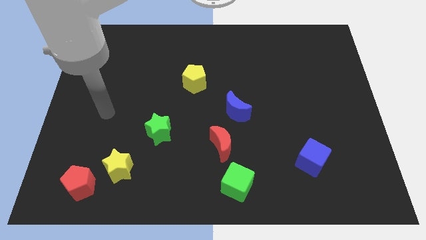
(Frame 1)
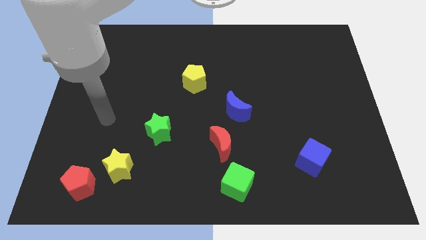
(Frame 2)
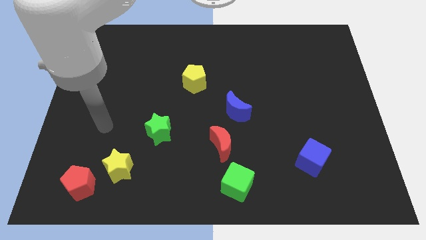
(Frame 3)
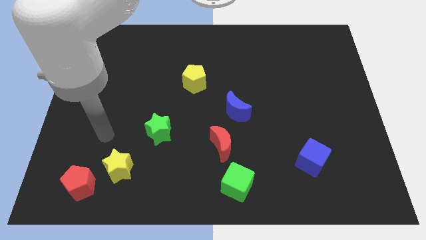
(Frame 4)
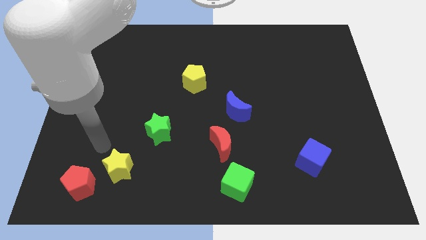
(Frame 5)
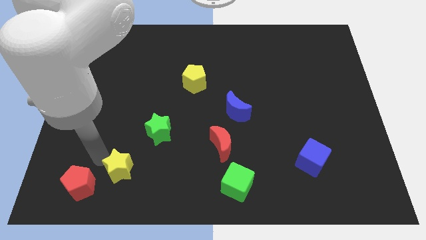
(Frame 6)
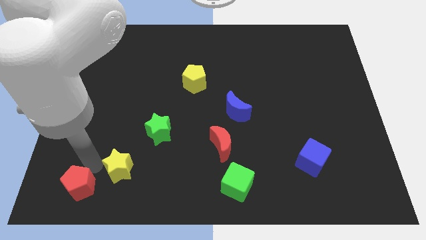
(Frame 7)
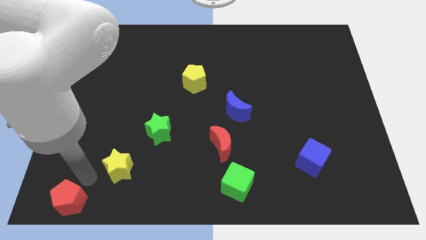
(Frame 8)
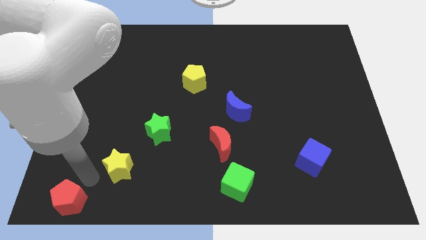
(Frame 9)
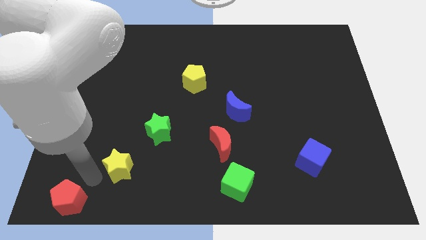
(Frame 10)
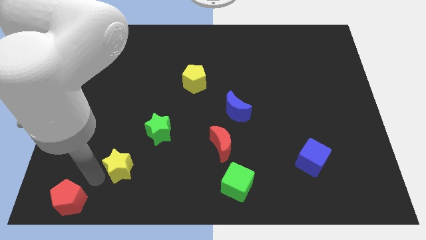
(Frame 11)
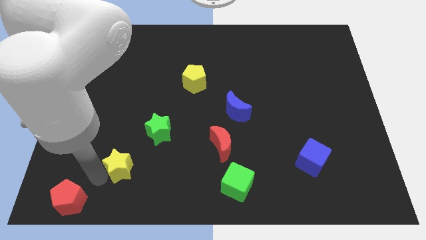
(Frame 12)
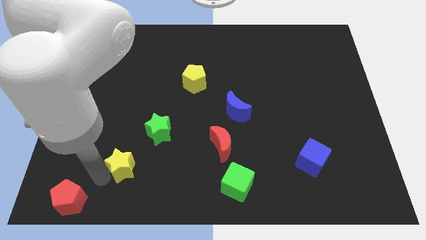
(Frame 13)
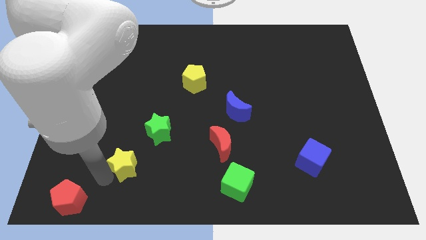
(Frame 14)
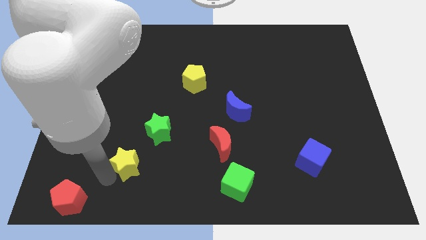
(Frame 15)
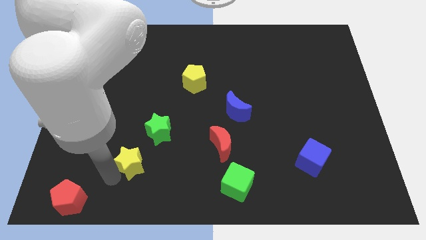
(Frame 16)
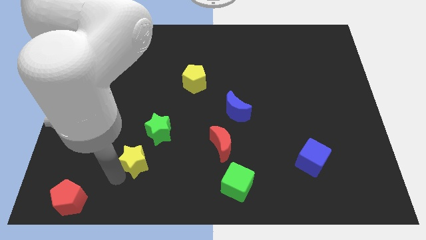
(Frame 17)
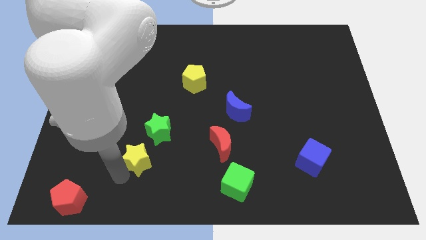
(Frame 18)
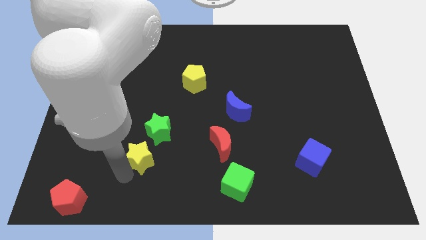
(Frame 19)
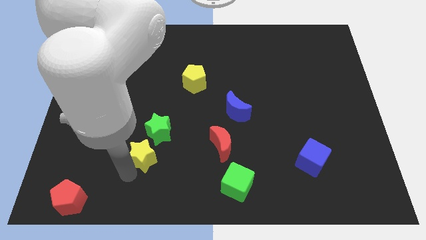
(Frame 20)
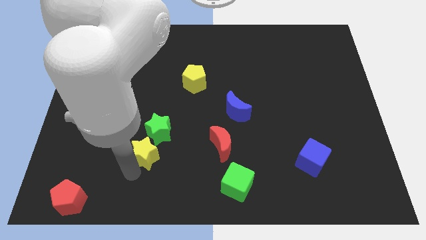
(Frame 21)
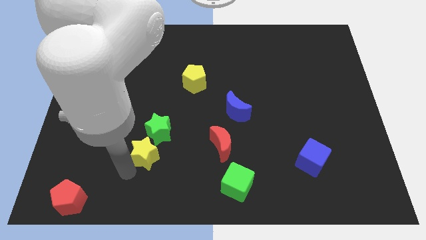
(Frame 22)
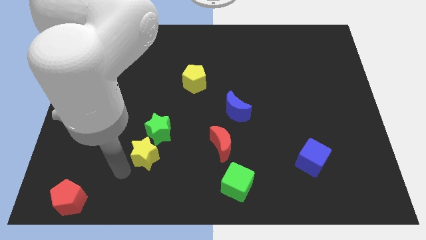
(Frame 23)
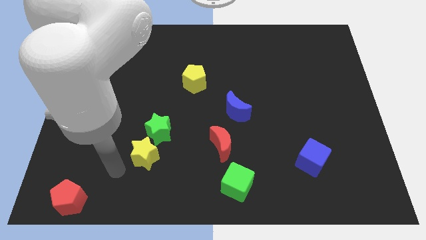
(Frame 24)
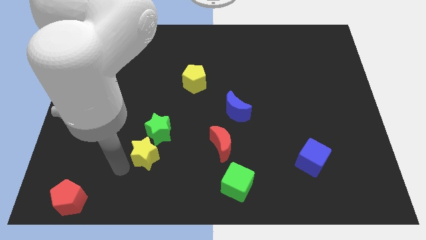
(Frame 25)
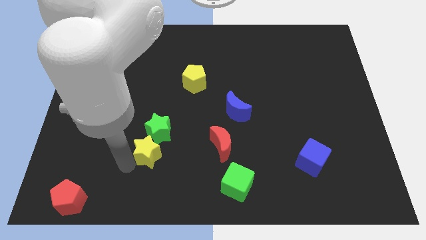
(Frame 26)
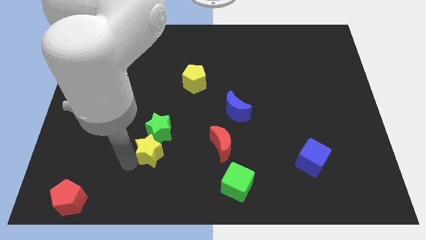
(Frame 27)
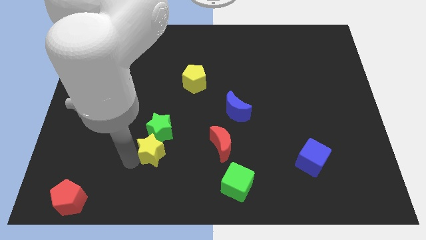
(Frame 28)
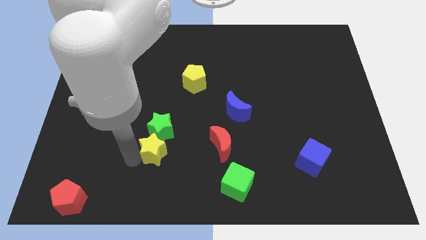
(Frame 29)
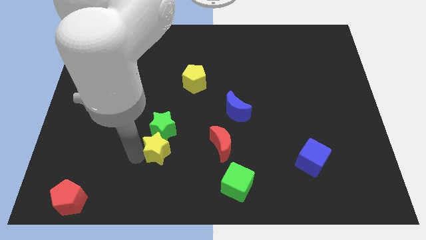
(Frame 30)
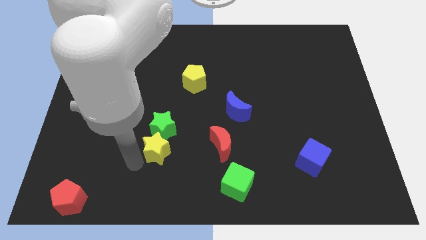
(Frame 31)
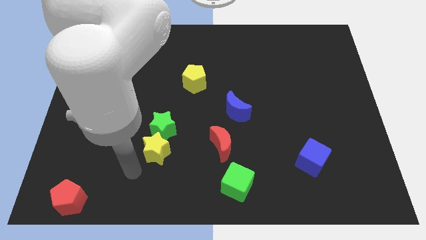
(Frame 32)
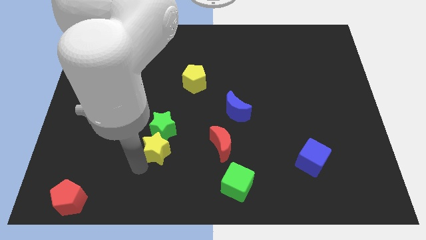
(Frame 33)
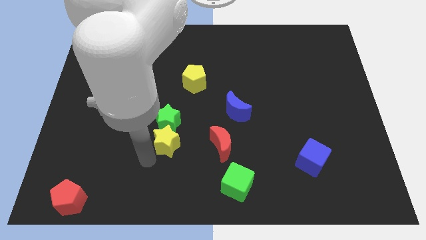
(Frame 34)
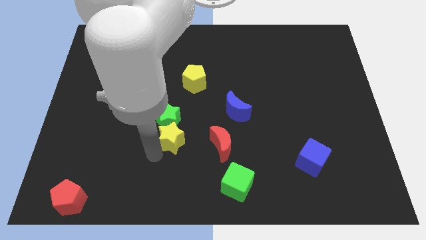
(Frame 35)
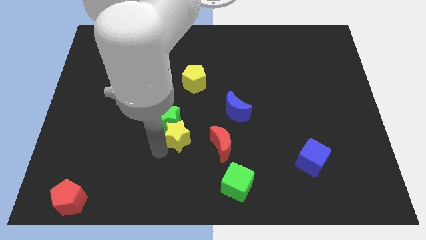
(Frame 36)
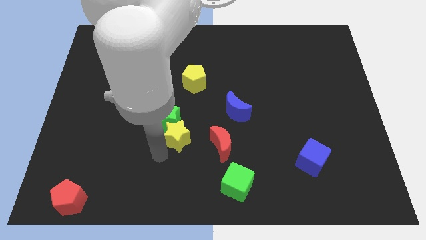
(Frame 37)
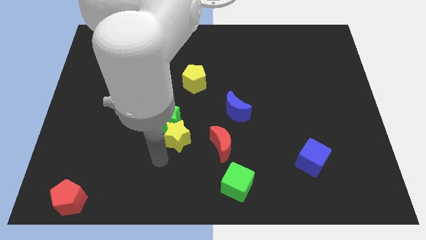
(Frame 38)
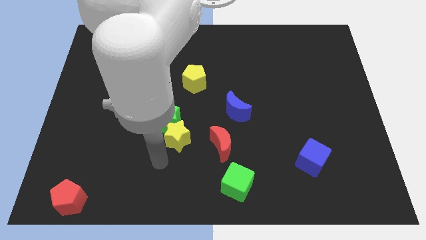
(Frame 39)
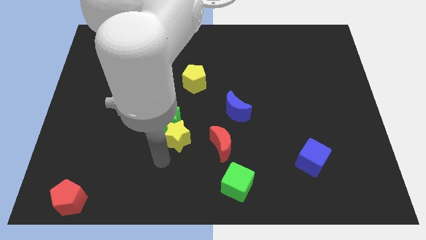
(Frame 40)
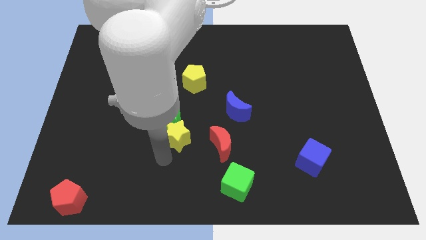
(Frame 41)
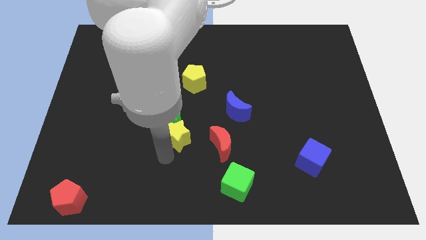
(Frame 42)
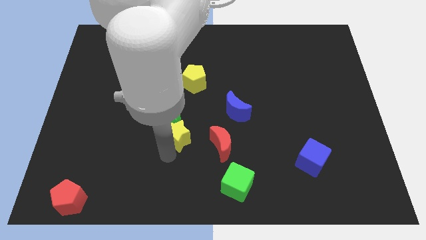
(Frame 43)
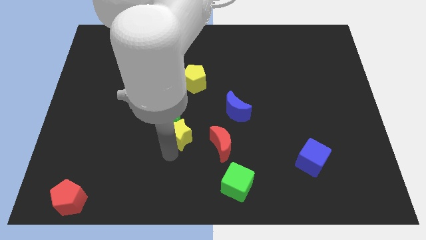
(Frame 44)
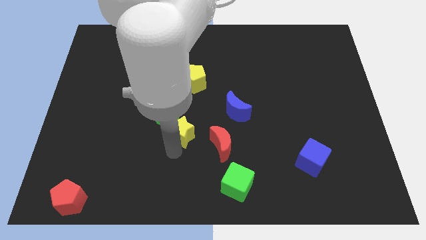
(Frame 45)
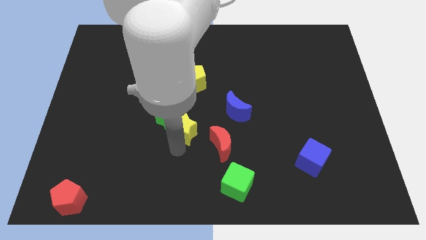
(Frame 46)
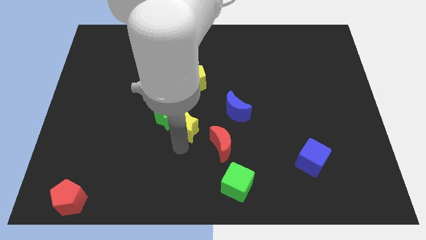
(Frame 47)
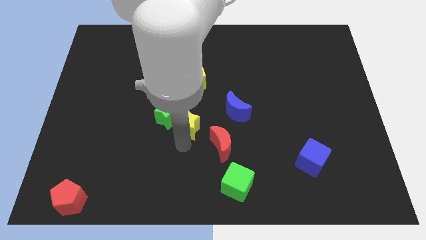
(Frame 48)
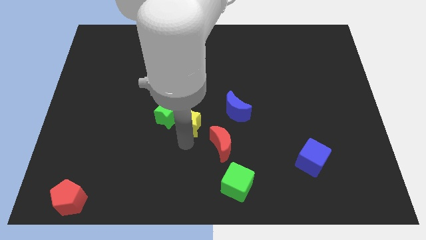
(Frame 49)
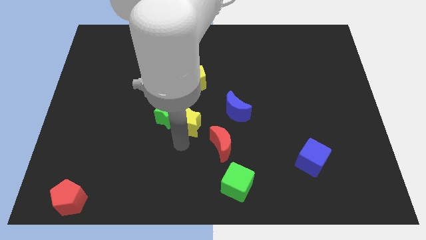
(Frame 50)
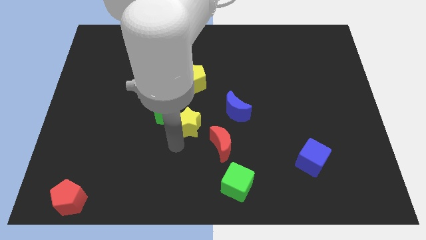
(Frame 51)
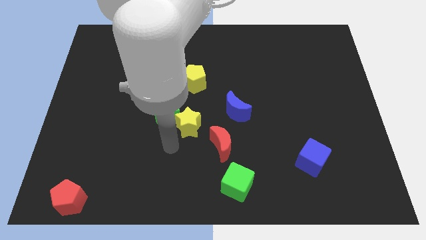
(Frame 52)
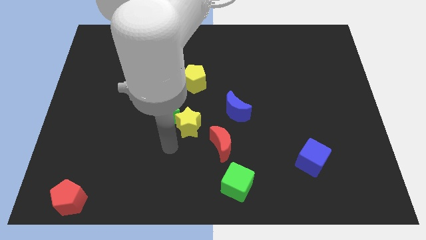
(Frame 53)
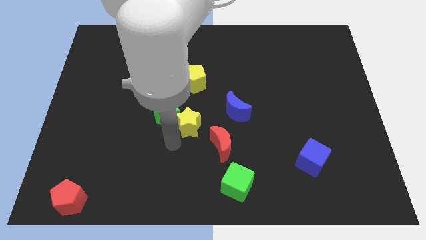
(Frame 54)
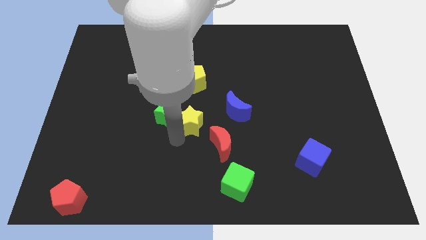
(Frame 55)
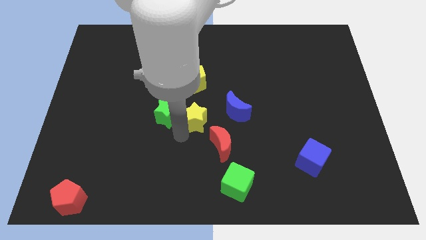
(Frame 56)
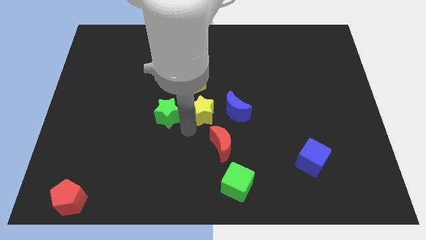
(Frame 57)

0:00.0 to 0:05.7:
push the yellow star up and right diagonally

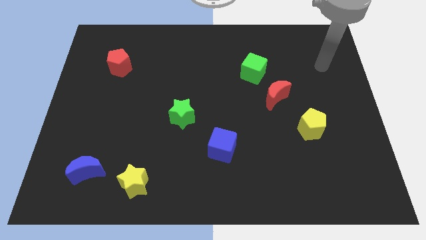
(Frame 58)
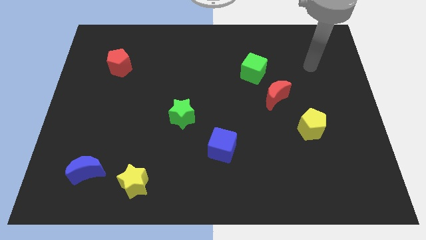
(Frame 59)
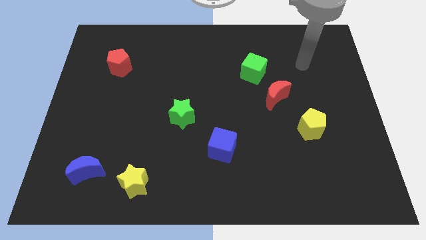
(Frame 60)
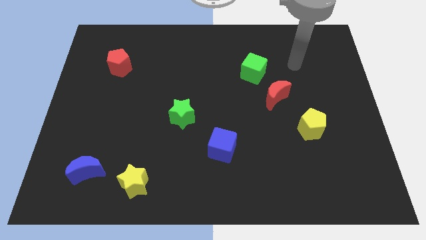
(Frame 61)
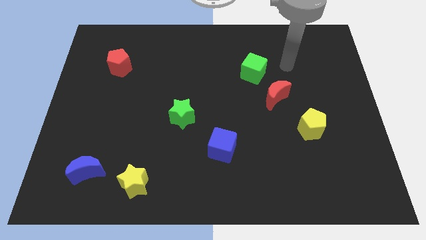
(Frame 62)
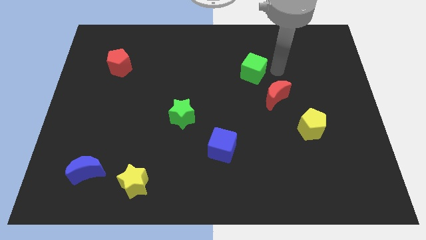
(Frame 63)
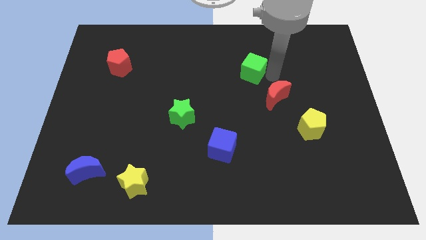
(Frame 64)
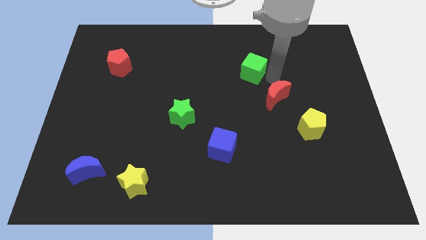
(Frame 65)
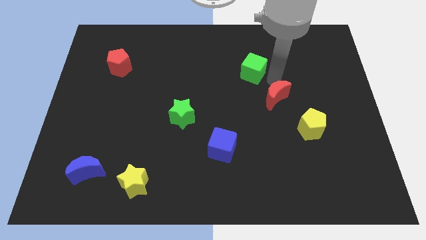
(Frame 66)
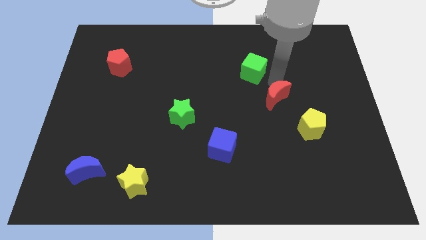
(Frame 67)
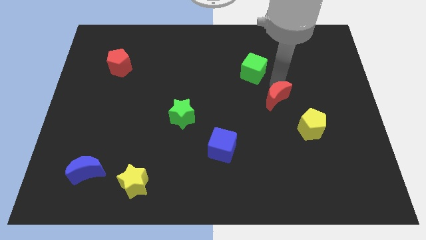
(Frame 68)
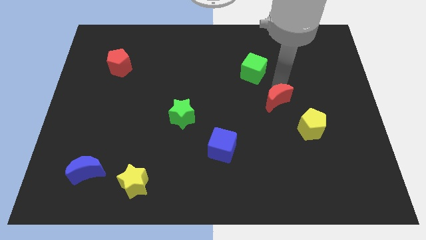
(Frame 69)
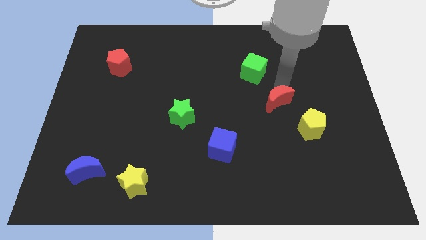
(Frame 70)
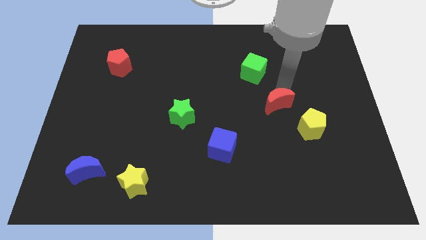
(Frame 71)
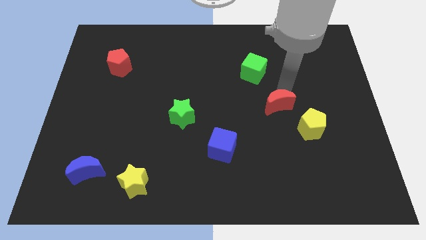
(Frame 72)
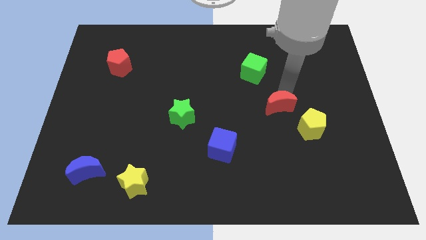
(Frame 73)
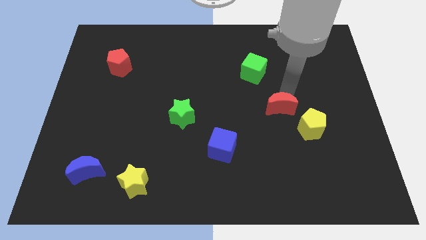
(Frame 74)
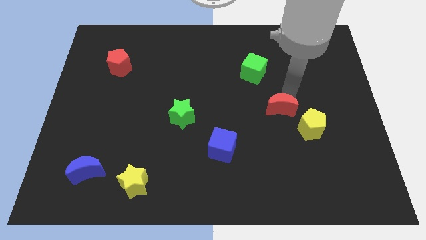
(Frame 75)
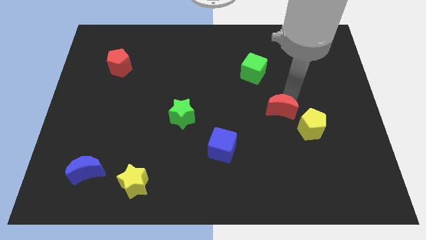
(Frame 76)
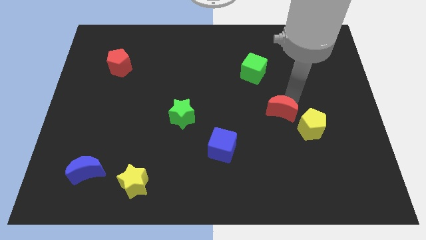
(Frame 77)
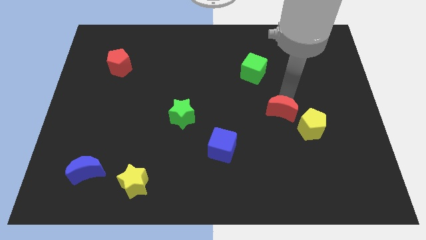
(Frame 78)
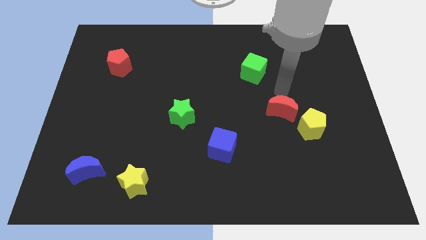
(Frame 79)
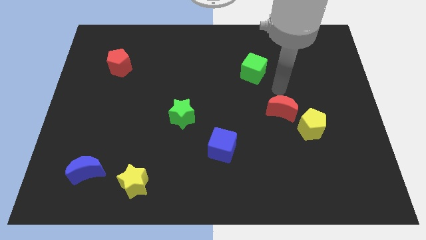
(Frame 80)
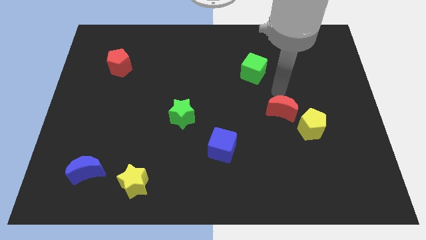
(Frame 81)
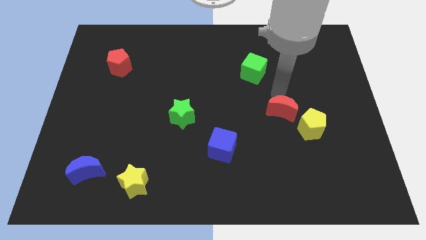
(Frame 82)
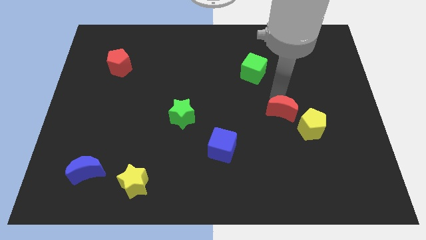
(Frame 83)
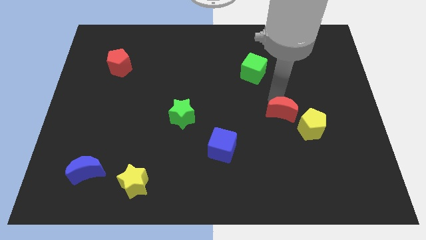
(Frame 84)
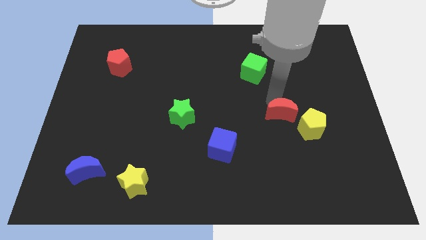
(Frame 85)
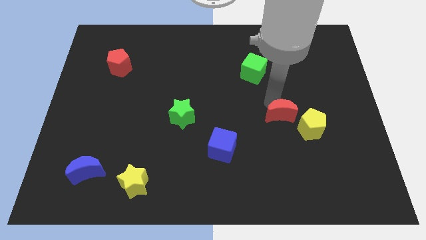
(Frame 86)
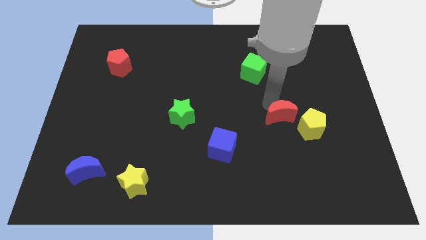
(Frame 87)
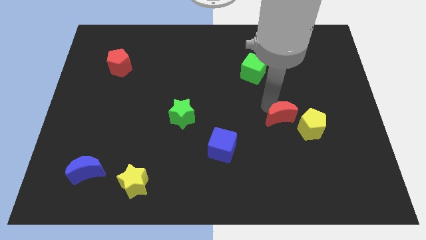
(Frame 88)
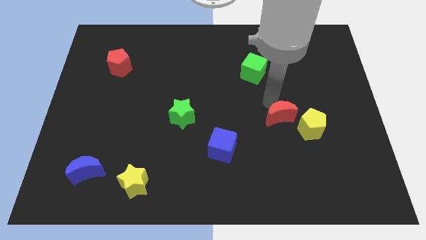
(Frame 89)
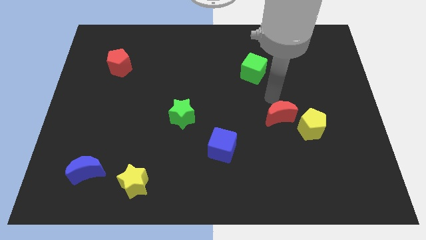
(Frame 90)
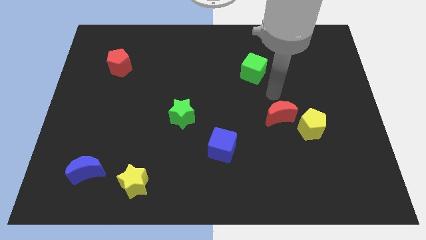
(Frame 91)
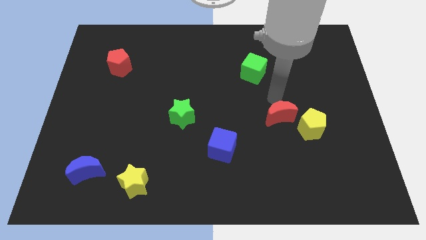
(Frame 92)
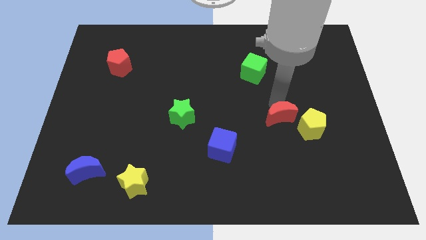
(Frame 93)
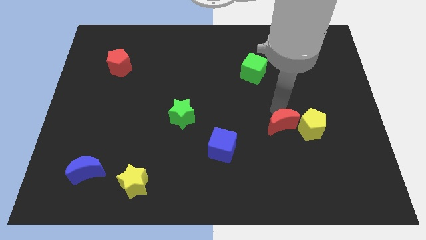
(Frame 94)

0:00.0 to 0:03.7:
slightly slide the red moon downwards
